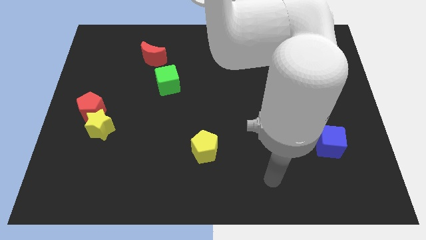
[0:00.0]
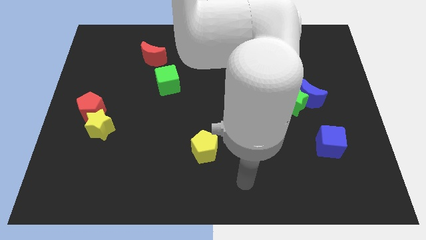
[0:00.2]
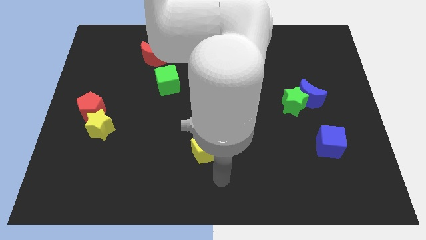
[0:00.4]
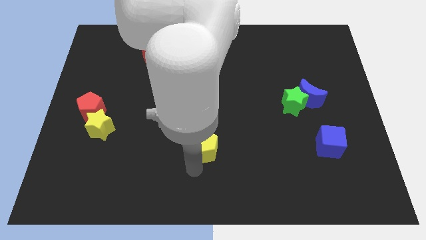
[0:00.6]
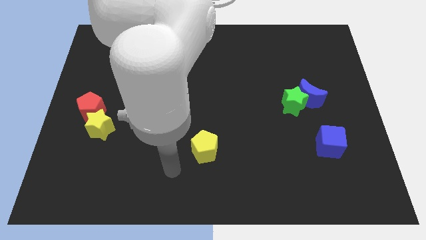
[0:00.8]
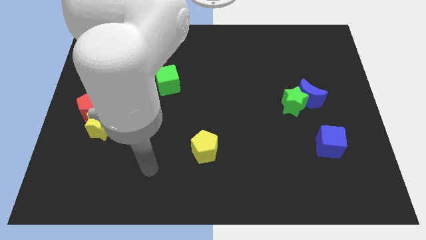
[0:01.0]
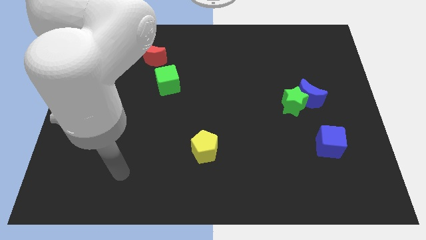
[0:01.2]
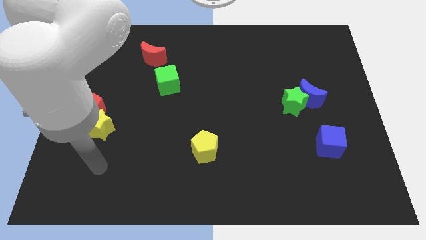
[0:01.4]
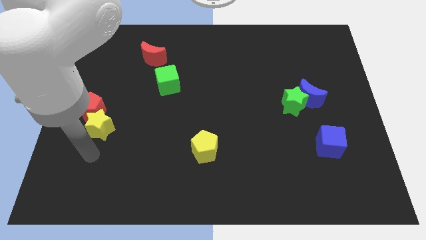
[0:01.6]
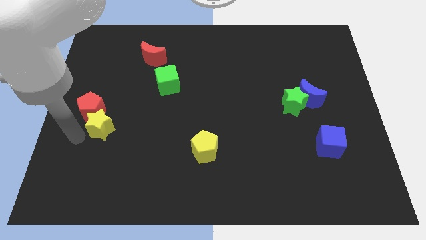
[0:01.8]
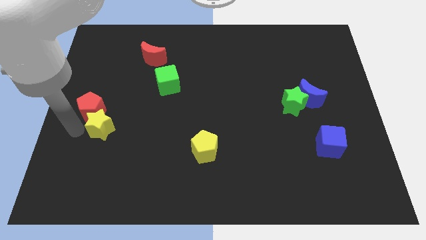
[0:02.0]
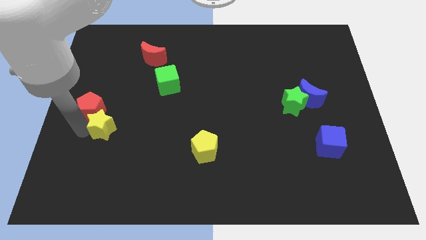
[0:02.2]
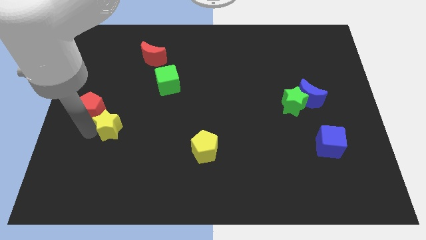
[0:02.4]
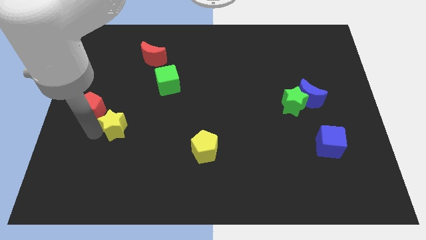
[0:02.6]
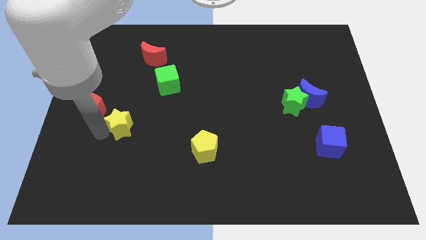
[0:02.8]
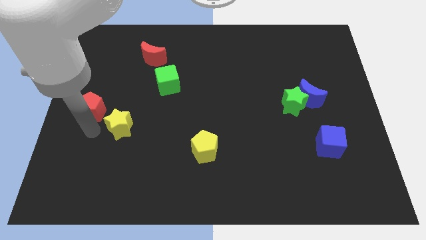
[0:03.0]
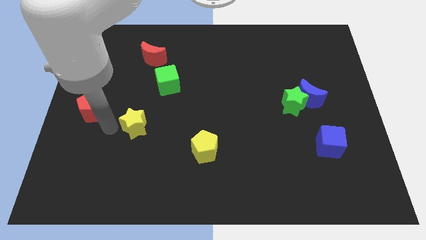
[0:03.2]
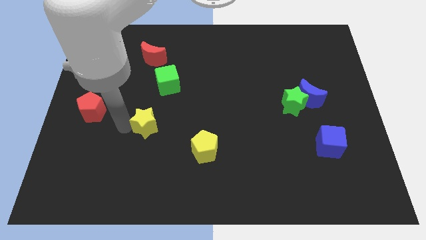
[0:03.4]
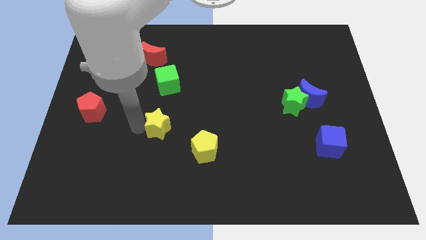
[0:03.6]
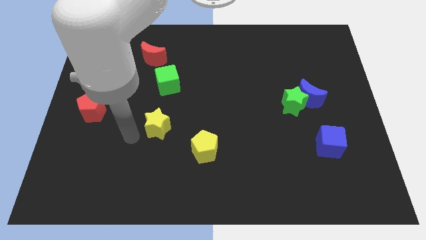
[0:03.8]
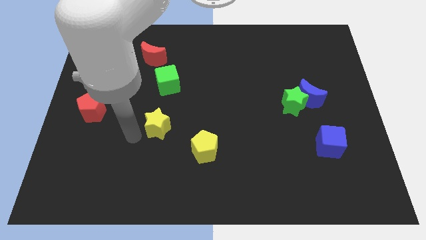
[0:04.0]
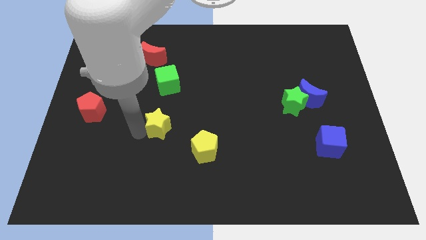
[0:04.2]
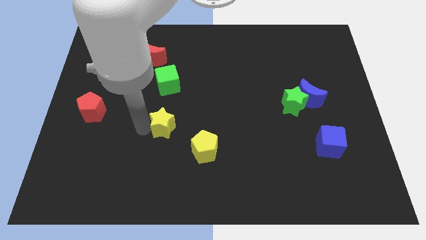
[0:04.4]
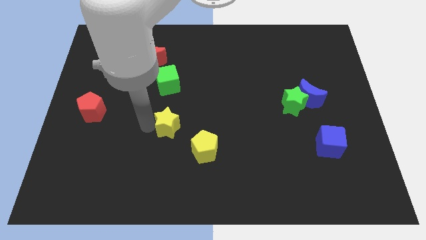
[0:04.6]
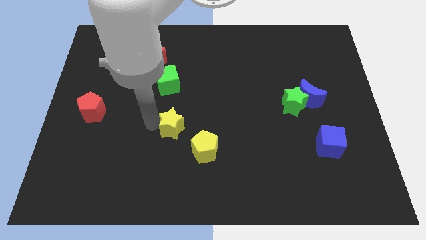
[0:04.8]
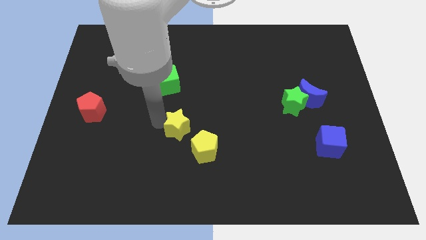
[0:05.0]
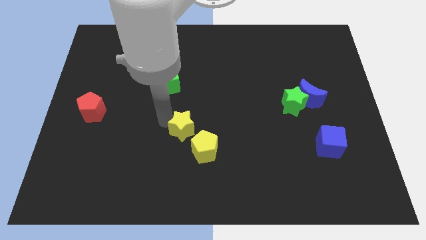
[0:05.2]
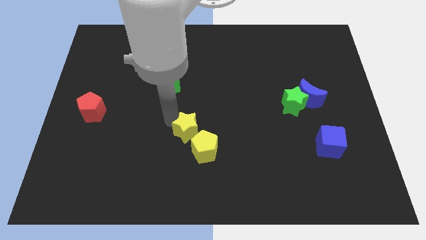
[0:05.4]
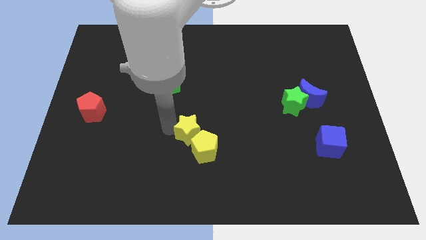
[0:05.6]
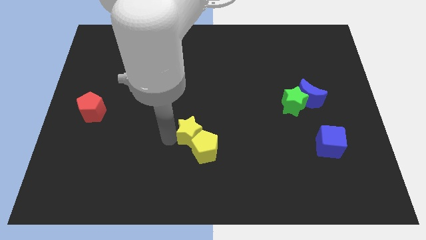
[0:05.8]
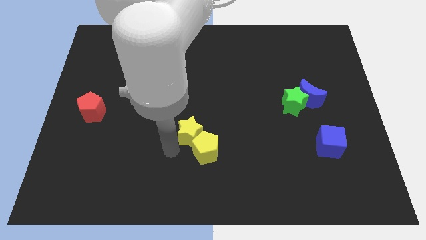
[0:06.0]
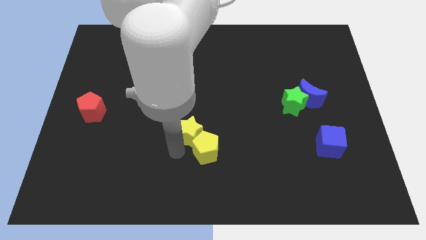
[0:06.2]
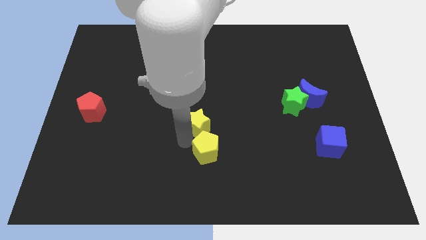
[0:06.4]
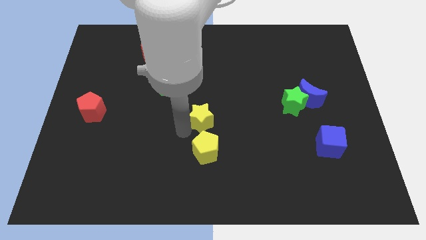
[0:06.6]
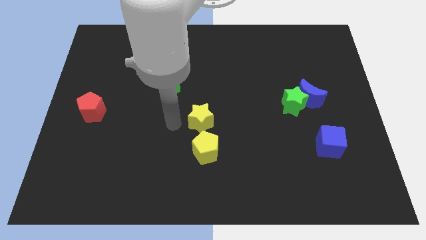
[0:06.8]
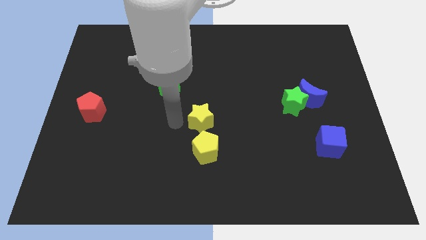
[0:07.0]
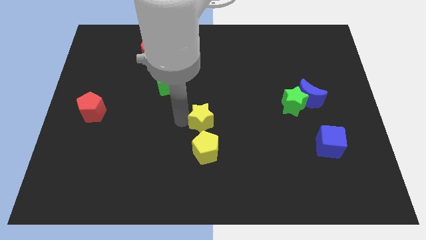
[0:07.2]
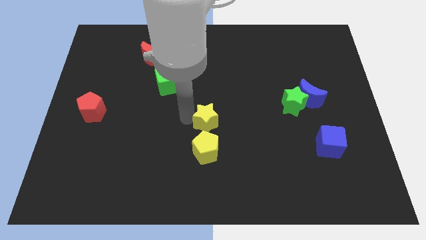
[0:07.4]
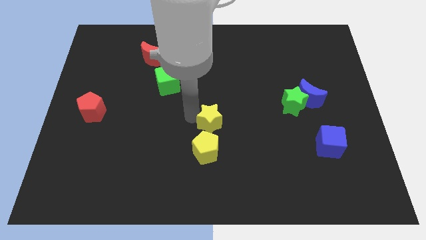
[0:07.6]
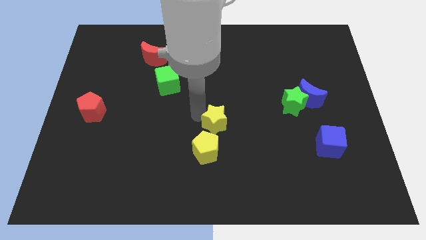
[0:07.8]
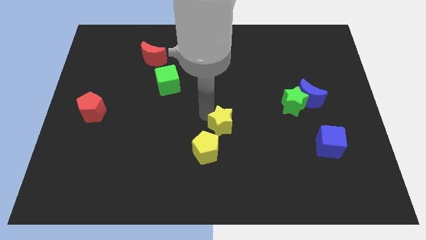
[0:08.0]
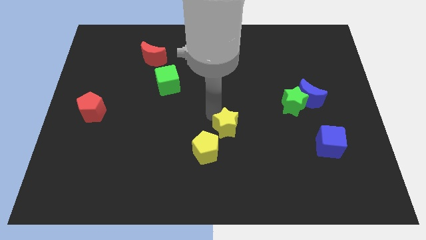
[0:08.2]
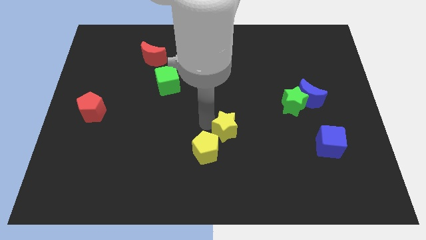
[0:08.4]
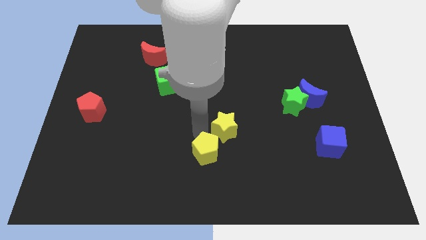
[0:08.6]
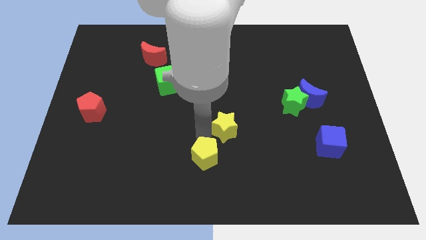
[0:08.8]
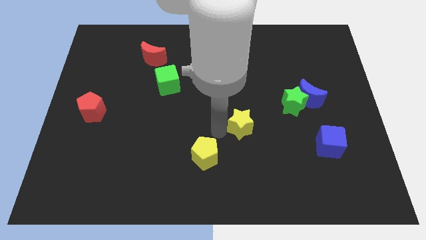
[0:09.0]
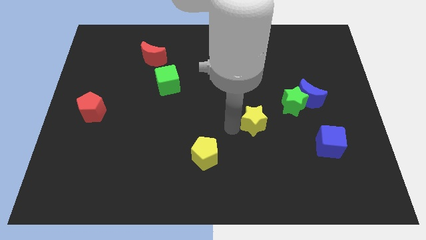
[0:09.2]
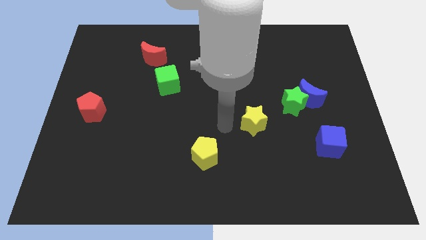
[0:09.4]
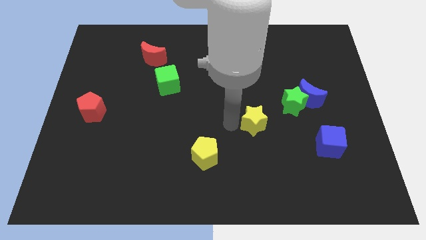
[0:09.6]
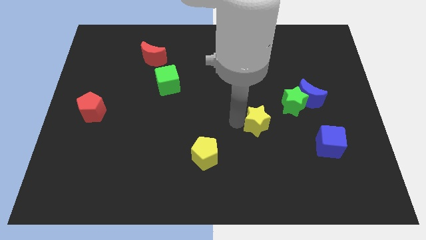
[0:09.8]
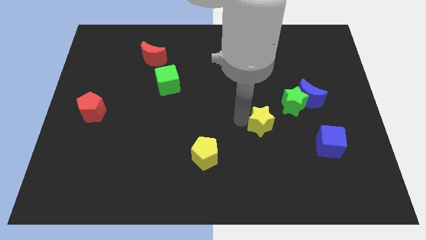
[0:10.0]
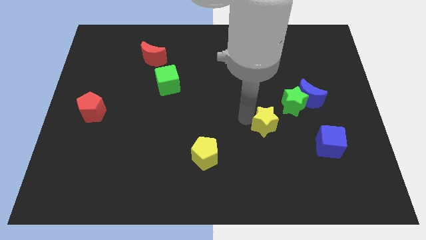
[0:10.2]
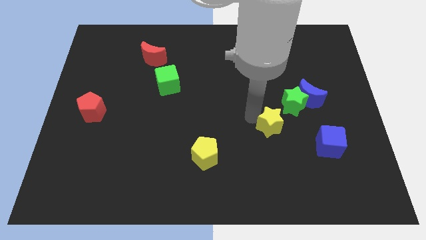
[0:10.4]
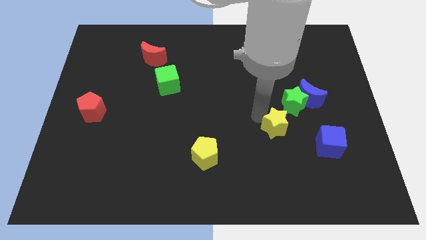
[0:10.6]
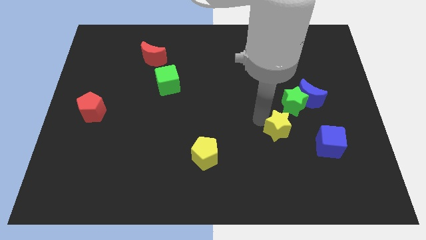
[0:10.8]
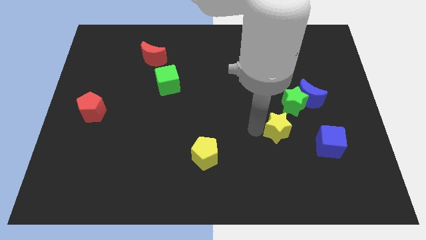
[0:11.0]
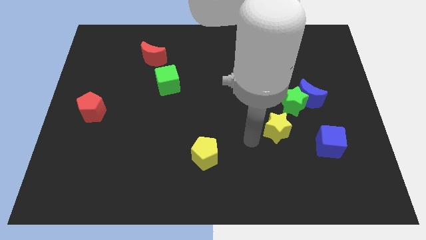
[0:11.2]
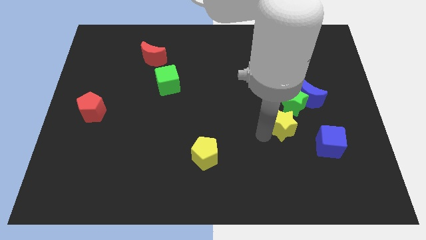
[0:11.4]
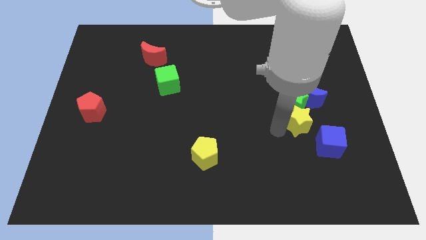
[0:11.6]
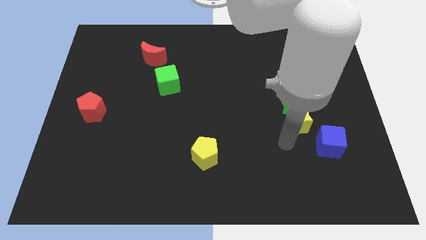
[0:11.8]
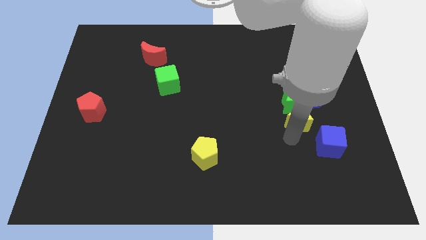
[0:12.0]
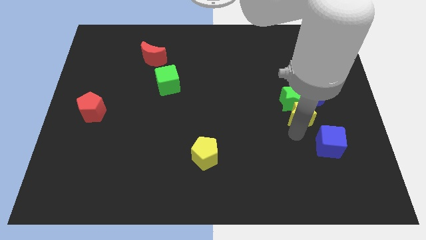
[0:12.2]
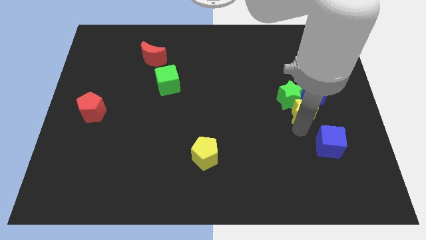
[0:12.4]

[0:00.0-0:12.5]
push the yellow star next to the blue moon

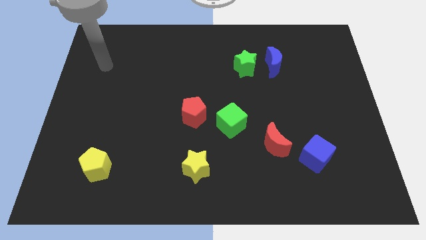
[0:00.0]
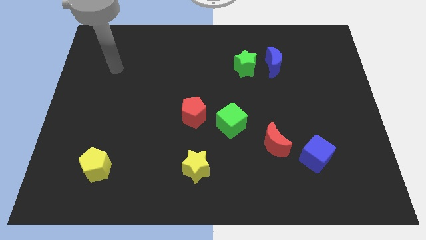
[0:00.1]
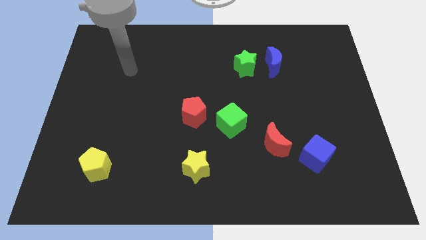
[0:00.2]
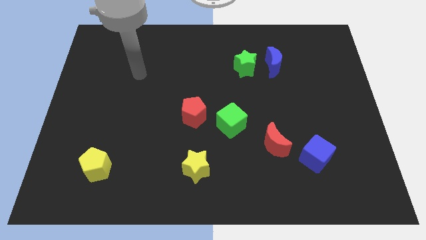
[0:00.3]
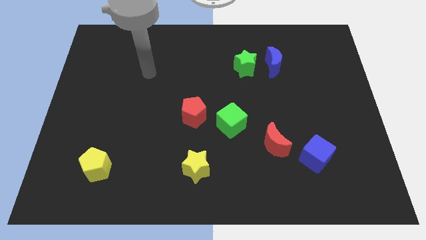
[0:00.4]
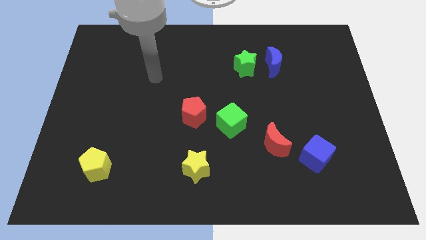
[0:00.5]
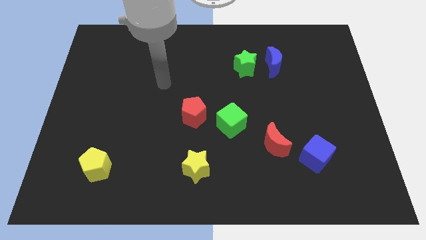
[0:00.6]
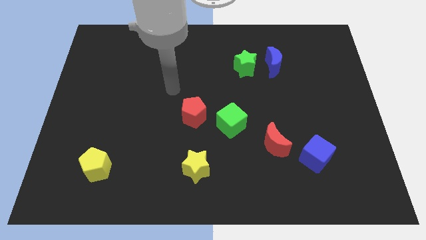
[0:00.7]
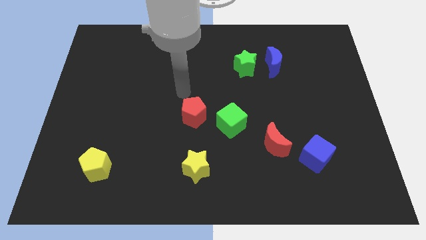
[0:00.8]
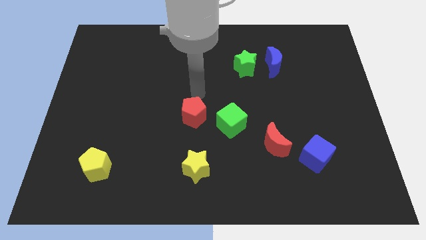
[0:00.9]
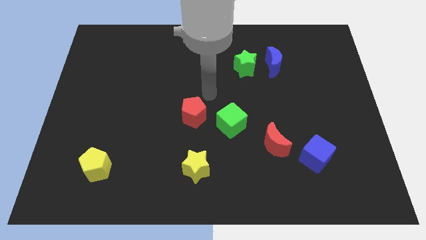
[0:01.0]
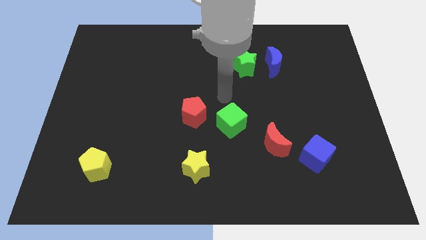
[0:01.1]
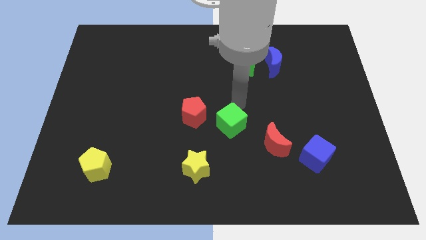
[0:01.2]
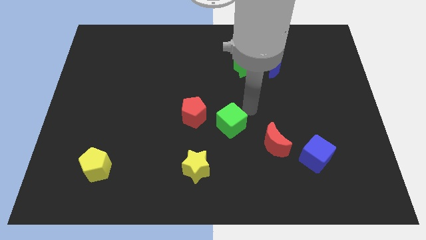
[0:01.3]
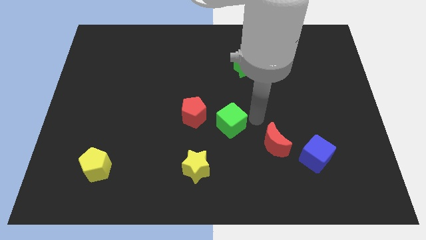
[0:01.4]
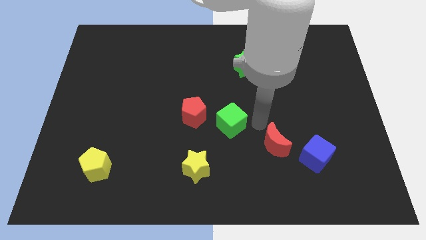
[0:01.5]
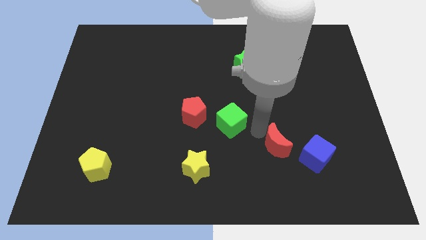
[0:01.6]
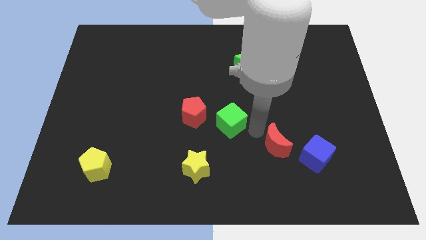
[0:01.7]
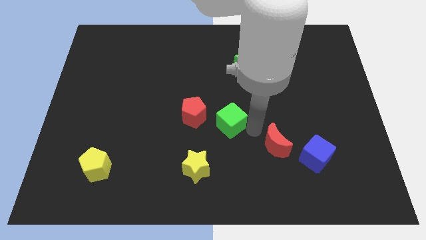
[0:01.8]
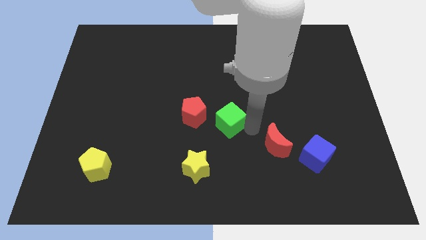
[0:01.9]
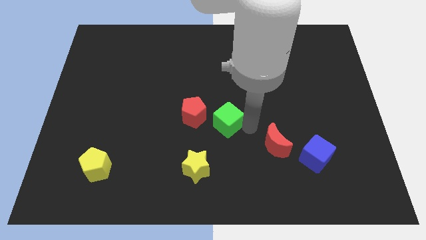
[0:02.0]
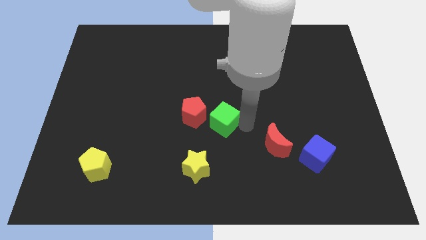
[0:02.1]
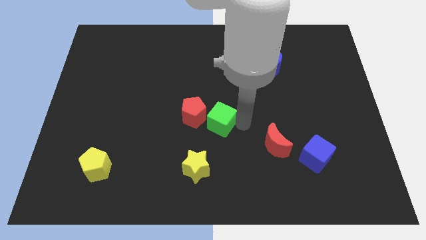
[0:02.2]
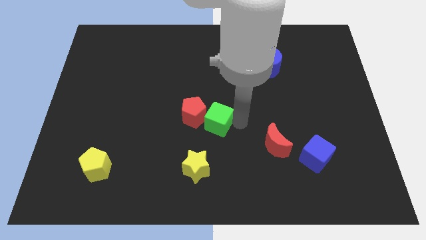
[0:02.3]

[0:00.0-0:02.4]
push the green cube towards the red pentagon
